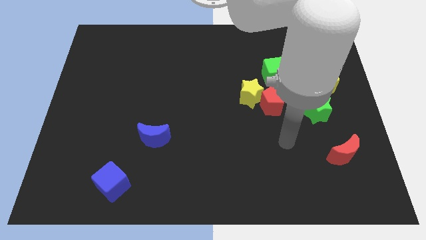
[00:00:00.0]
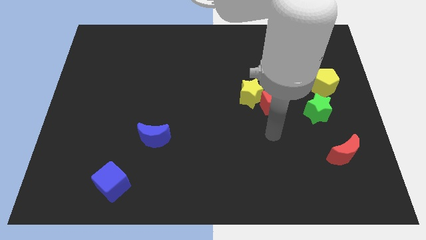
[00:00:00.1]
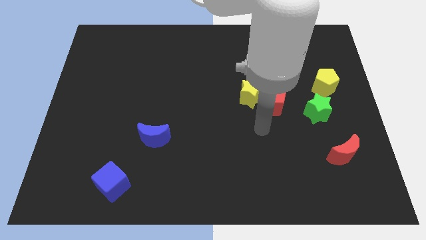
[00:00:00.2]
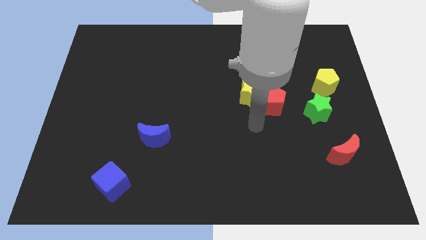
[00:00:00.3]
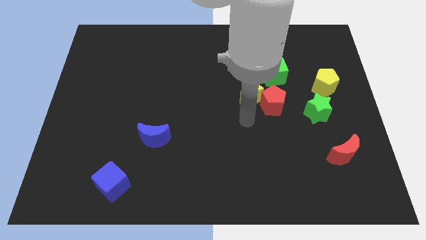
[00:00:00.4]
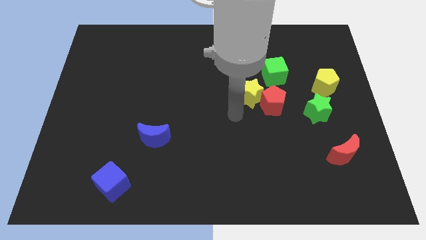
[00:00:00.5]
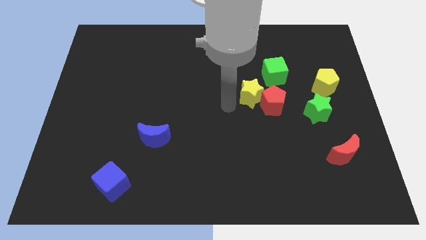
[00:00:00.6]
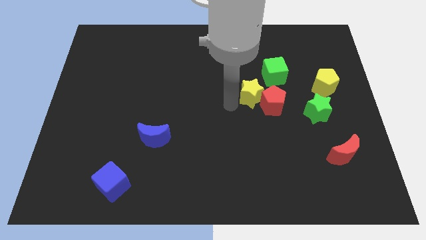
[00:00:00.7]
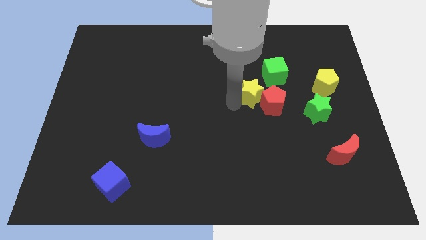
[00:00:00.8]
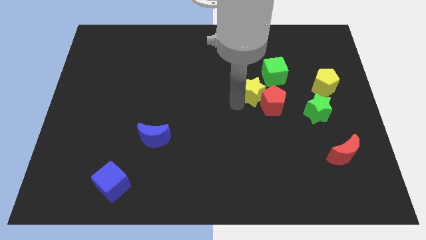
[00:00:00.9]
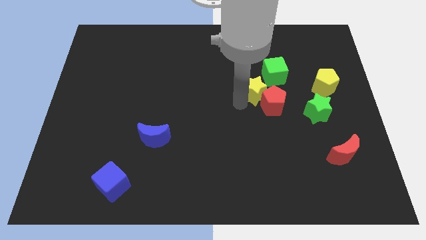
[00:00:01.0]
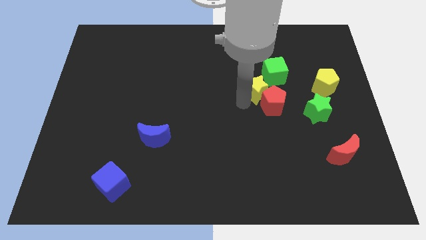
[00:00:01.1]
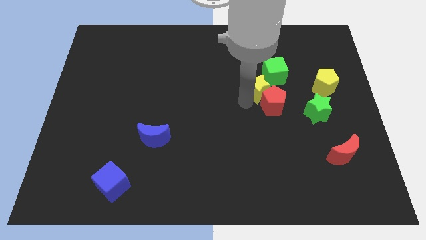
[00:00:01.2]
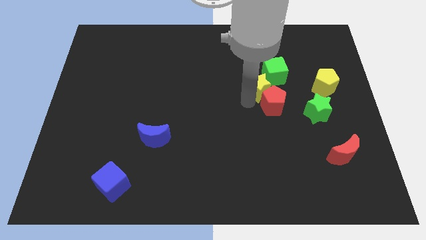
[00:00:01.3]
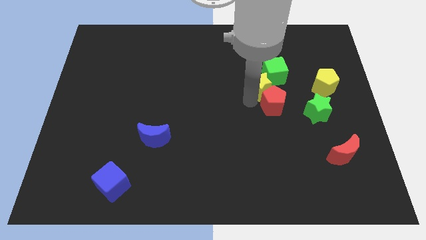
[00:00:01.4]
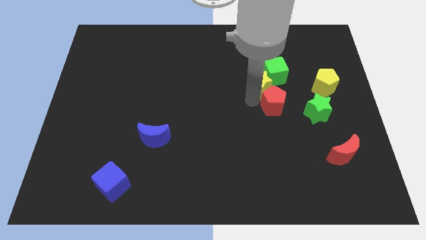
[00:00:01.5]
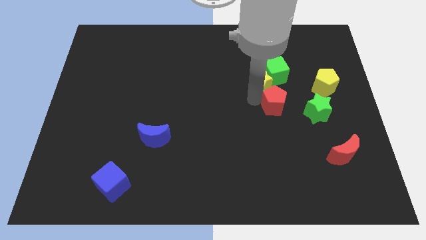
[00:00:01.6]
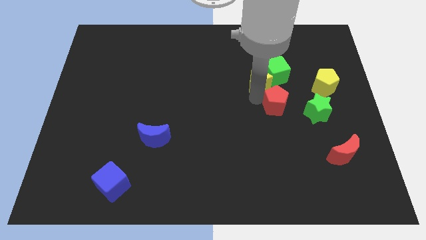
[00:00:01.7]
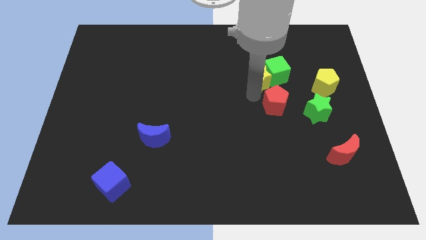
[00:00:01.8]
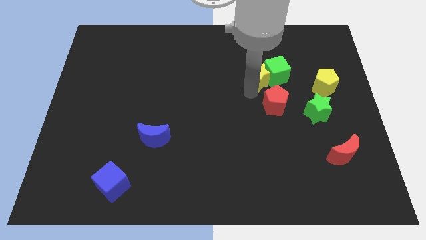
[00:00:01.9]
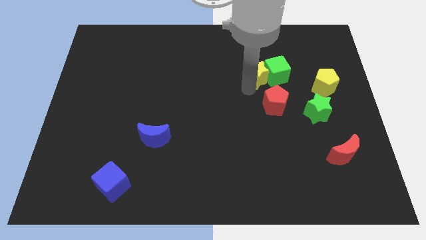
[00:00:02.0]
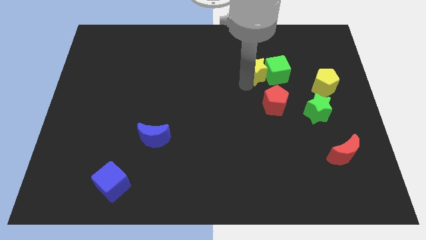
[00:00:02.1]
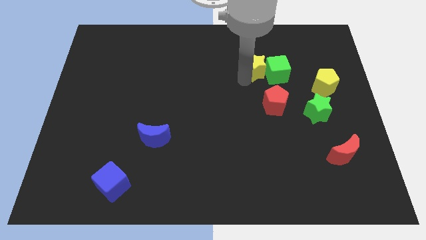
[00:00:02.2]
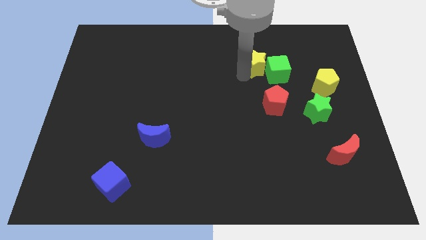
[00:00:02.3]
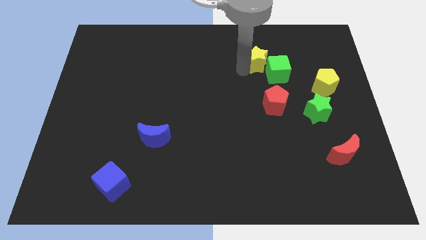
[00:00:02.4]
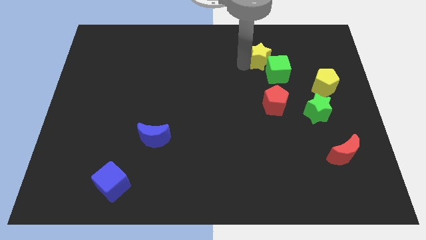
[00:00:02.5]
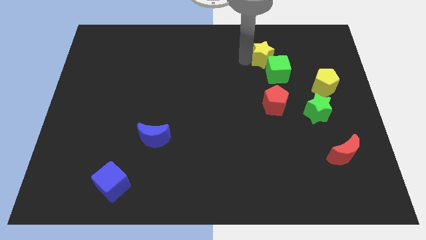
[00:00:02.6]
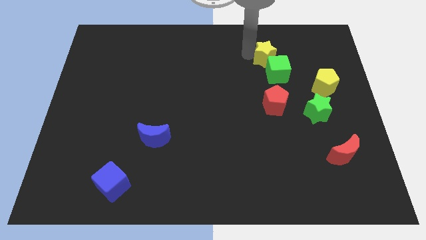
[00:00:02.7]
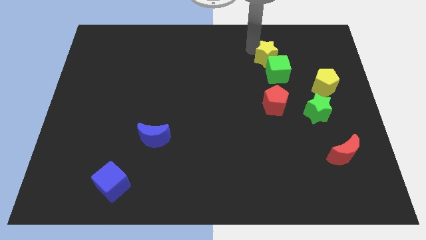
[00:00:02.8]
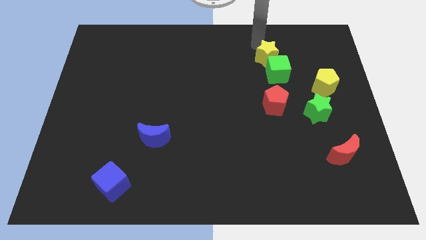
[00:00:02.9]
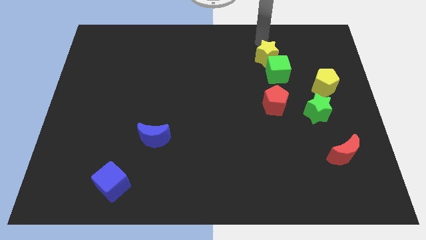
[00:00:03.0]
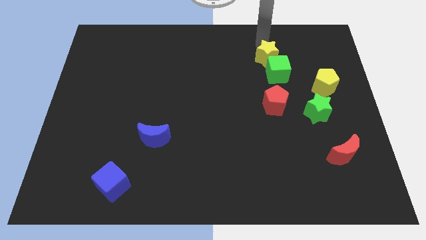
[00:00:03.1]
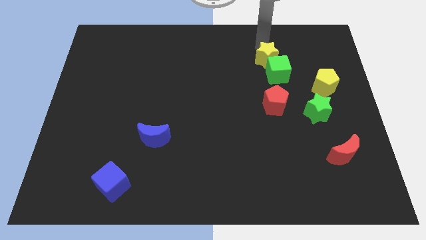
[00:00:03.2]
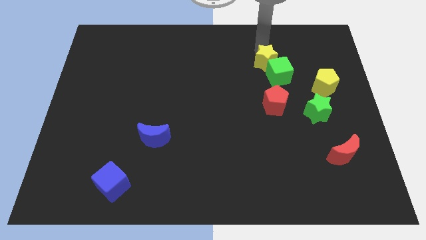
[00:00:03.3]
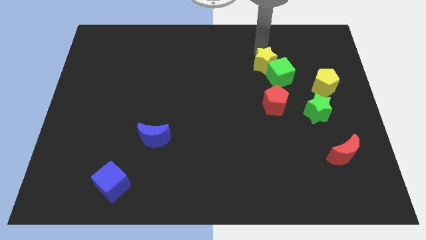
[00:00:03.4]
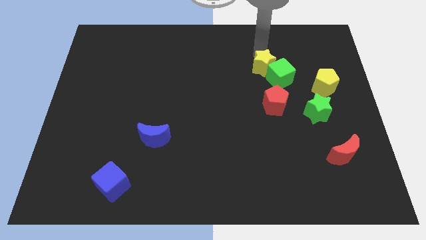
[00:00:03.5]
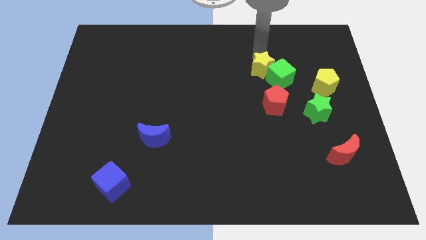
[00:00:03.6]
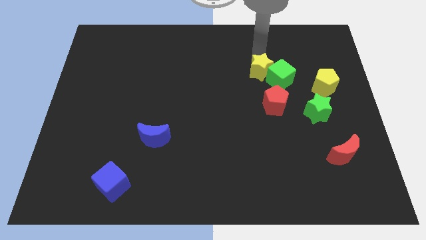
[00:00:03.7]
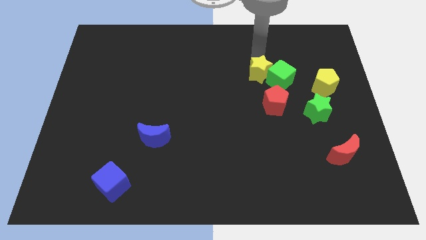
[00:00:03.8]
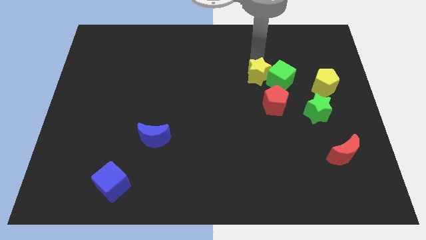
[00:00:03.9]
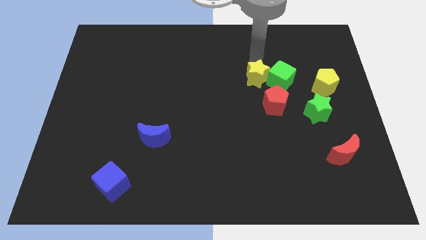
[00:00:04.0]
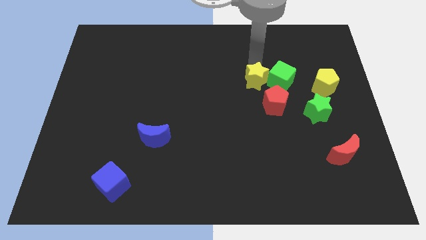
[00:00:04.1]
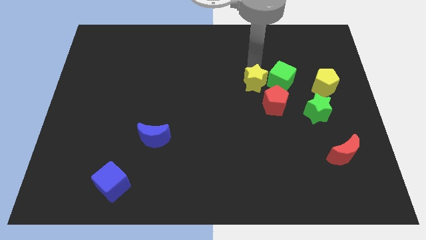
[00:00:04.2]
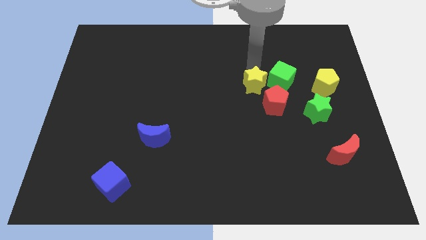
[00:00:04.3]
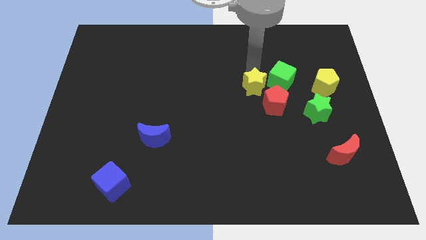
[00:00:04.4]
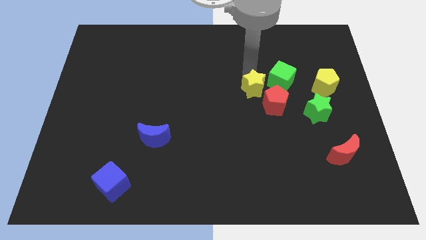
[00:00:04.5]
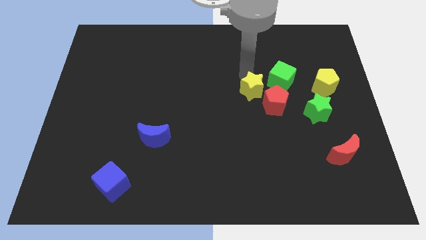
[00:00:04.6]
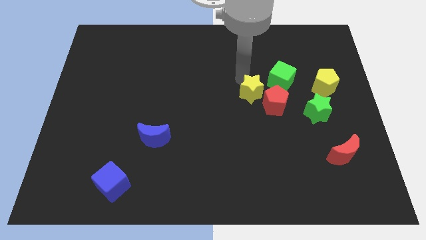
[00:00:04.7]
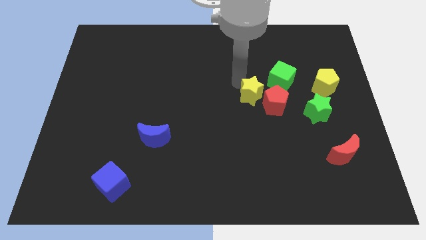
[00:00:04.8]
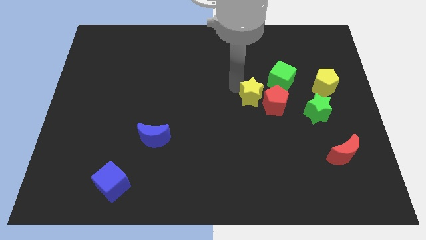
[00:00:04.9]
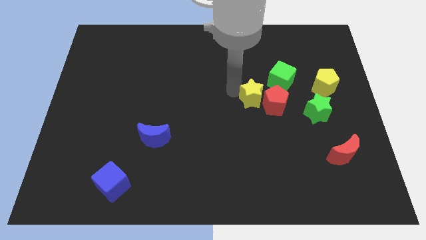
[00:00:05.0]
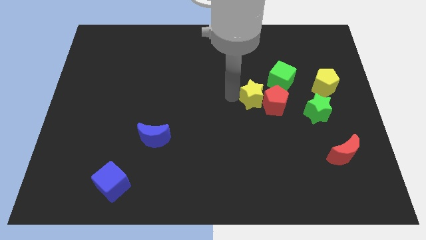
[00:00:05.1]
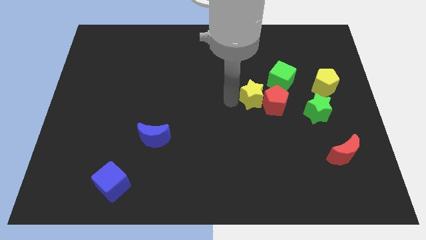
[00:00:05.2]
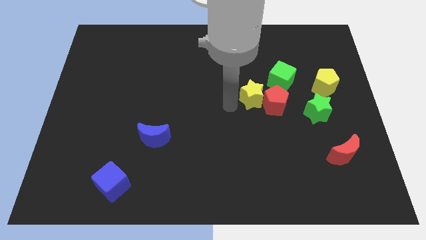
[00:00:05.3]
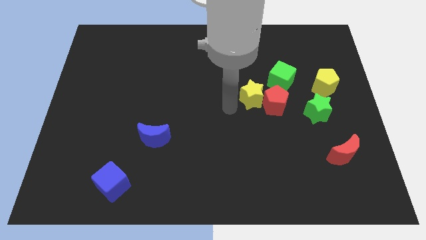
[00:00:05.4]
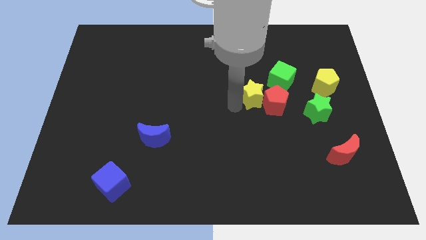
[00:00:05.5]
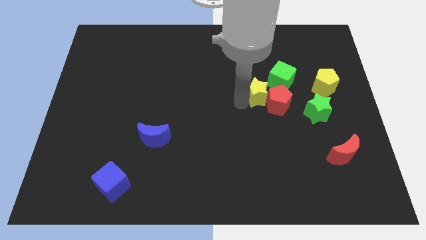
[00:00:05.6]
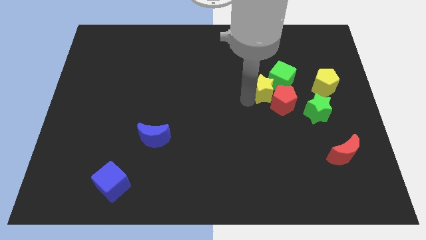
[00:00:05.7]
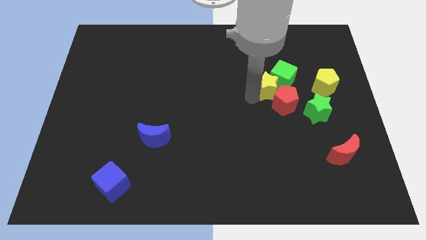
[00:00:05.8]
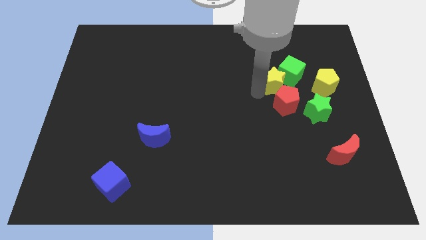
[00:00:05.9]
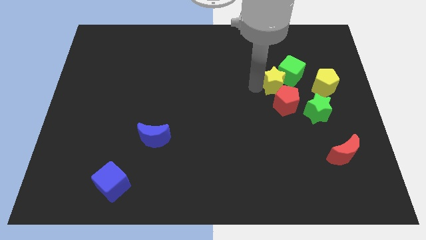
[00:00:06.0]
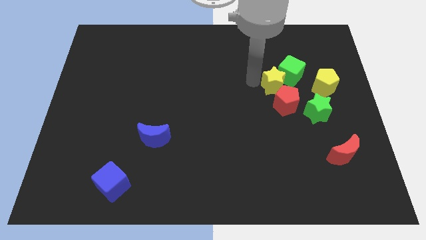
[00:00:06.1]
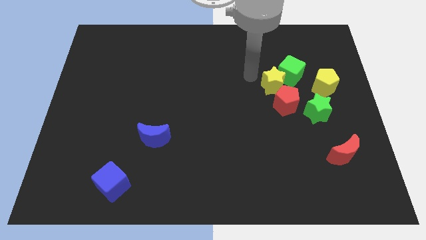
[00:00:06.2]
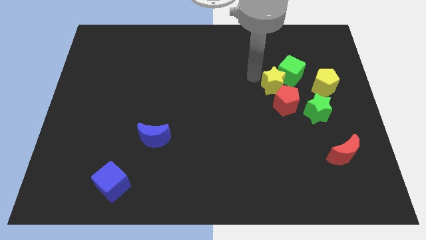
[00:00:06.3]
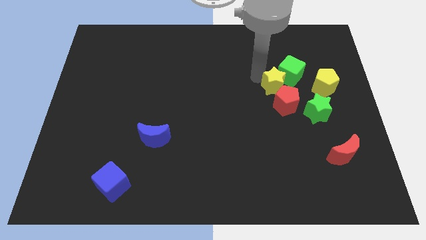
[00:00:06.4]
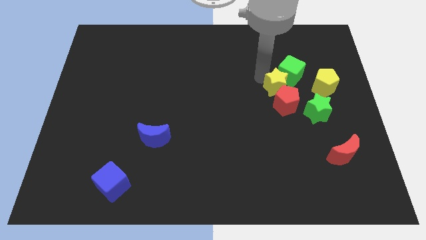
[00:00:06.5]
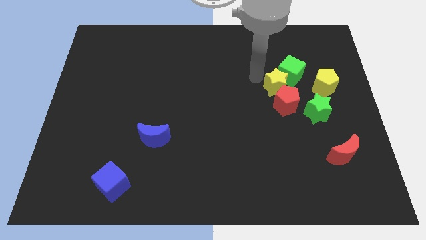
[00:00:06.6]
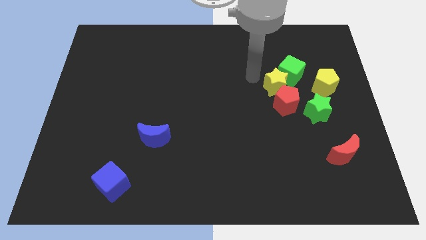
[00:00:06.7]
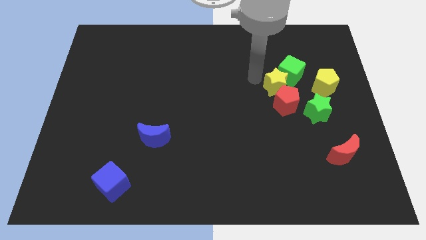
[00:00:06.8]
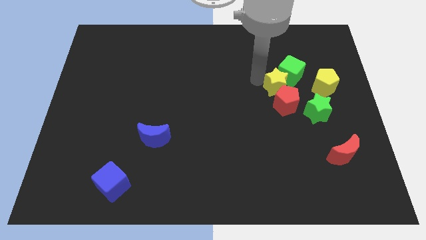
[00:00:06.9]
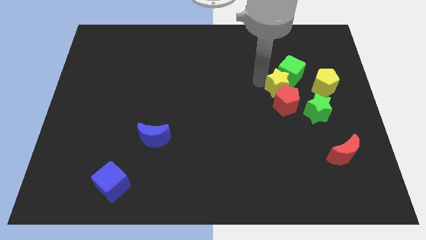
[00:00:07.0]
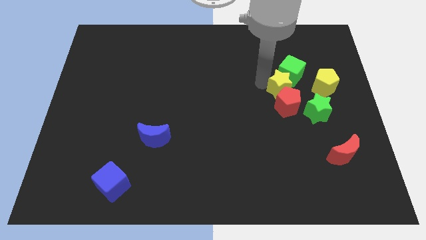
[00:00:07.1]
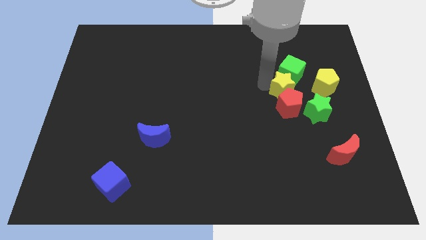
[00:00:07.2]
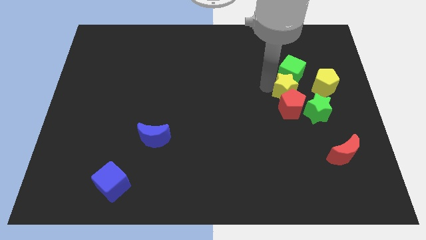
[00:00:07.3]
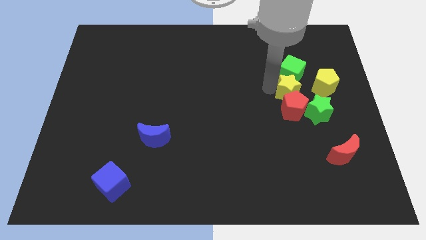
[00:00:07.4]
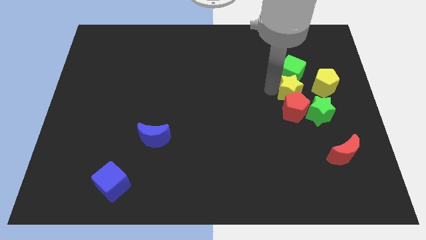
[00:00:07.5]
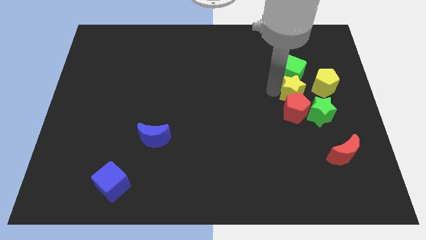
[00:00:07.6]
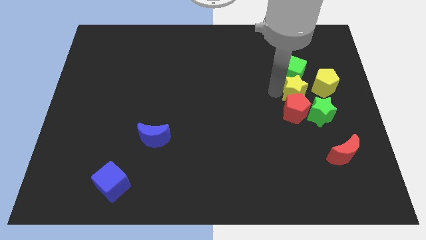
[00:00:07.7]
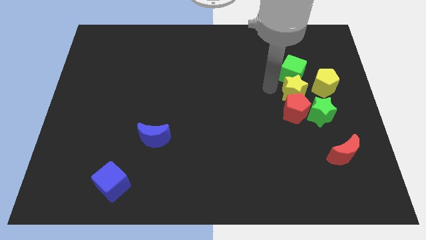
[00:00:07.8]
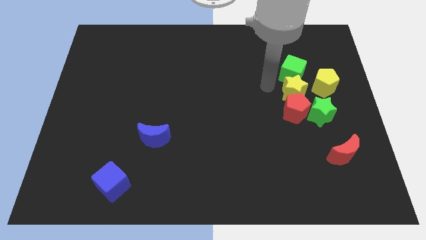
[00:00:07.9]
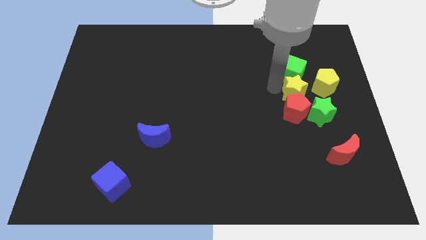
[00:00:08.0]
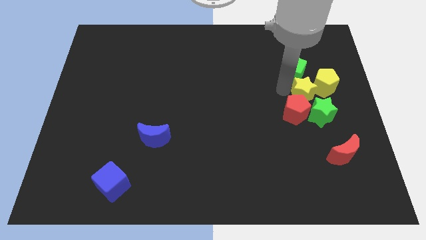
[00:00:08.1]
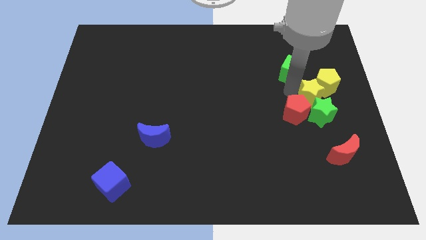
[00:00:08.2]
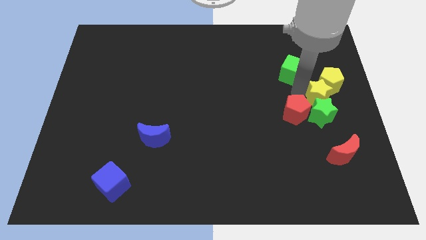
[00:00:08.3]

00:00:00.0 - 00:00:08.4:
slide the yellow star to the right side of the board
